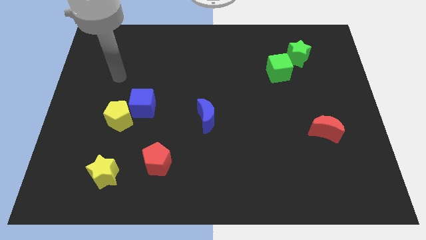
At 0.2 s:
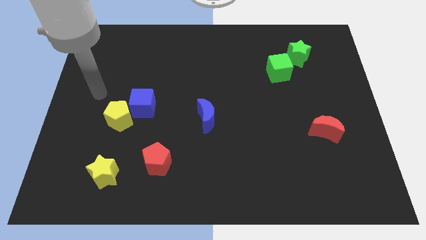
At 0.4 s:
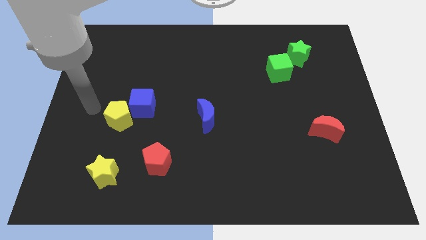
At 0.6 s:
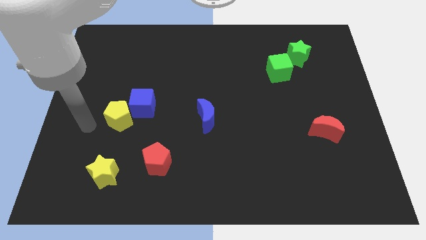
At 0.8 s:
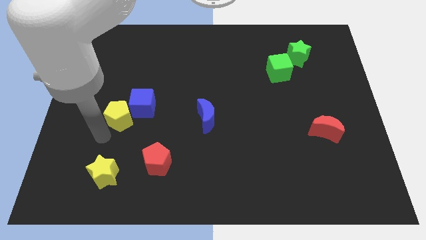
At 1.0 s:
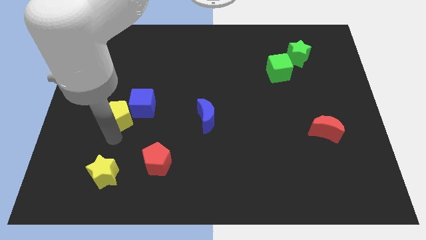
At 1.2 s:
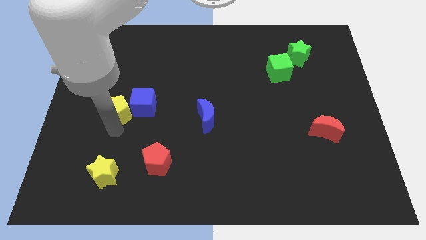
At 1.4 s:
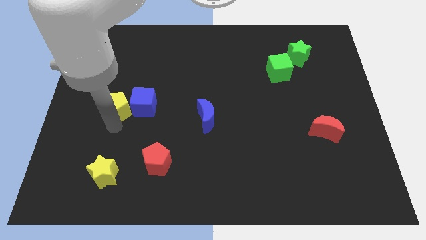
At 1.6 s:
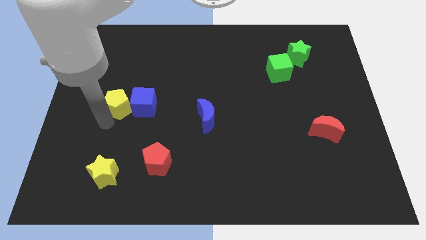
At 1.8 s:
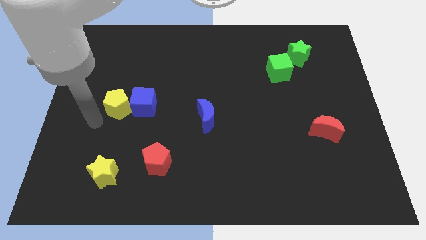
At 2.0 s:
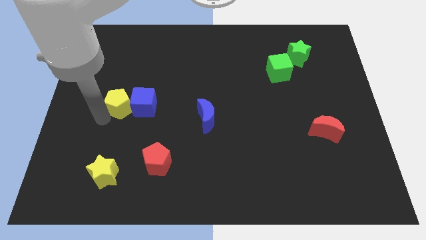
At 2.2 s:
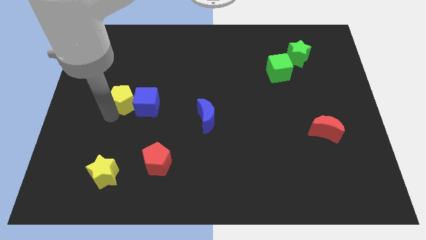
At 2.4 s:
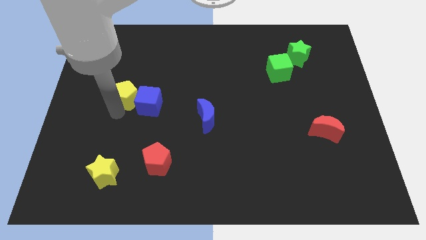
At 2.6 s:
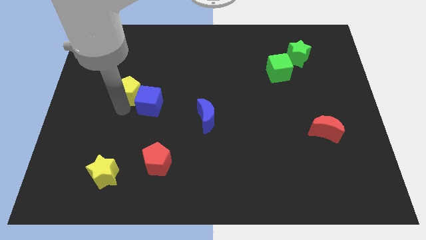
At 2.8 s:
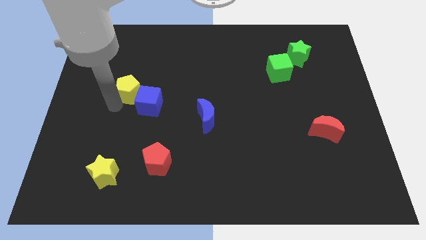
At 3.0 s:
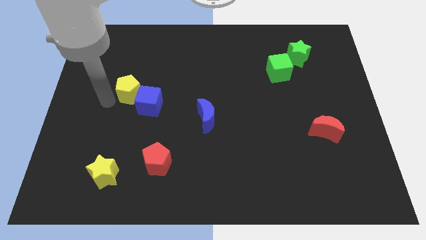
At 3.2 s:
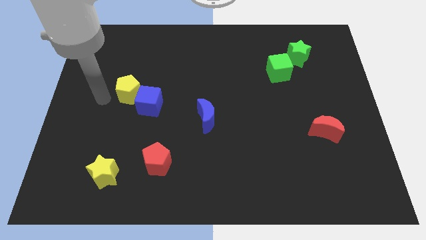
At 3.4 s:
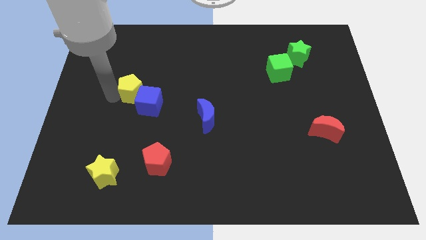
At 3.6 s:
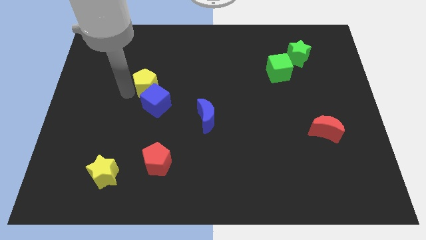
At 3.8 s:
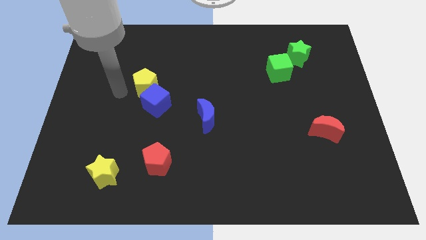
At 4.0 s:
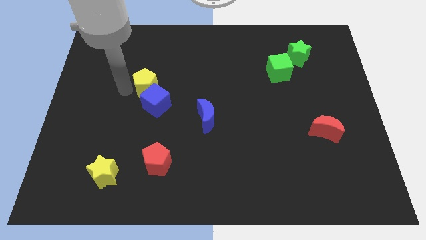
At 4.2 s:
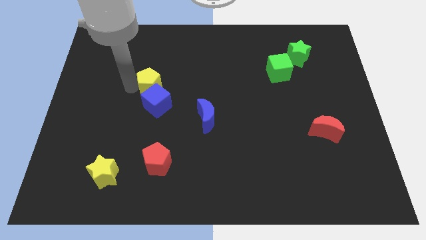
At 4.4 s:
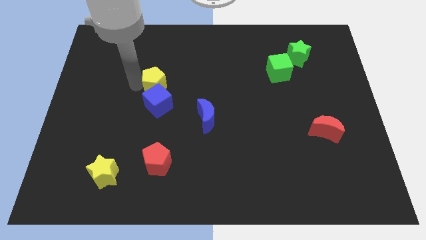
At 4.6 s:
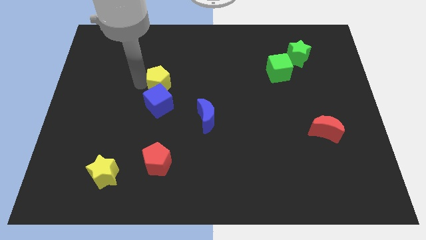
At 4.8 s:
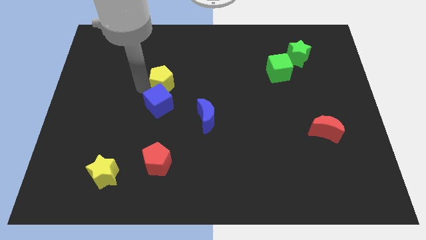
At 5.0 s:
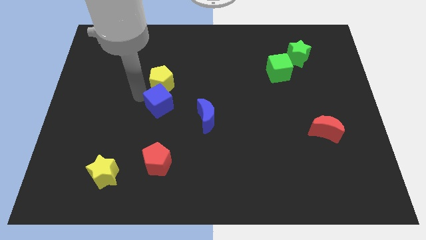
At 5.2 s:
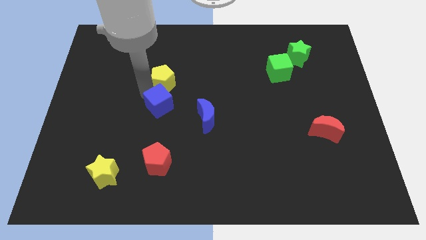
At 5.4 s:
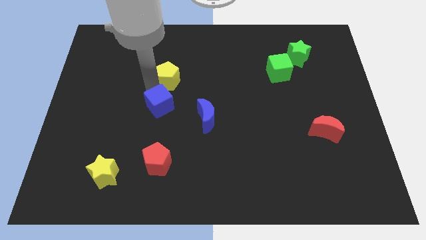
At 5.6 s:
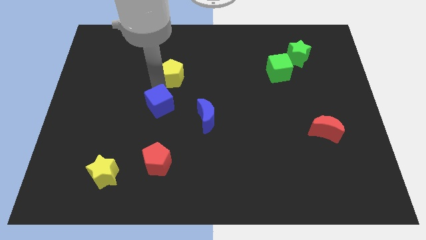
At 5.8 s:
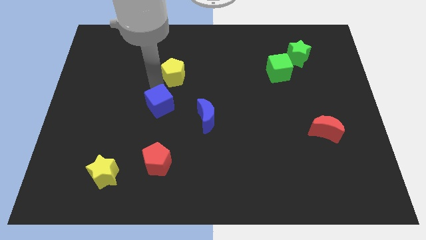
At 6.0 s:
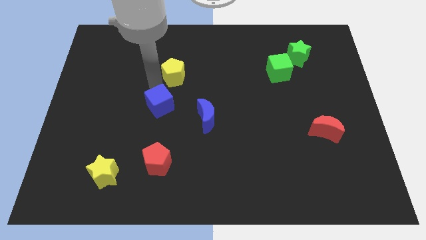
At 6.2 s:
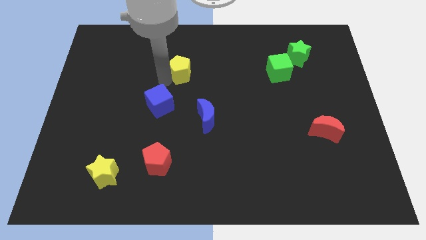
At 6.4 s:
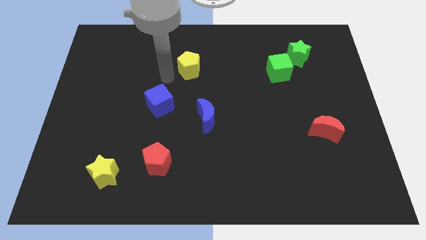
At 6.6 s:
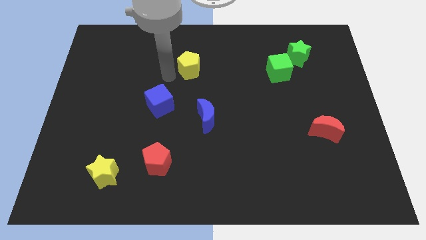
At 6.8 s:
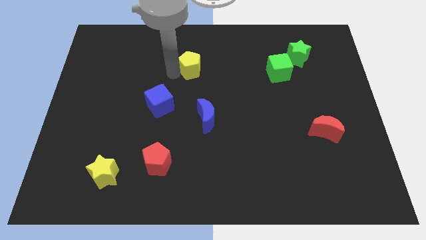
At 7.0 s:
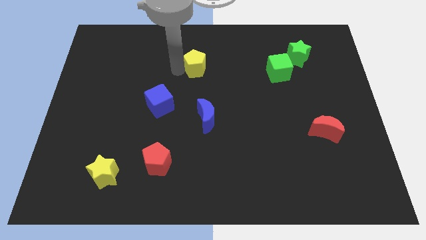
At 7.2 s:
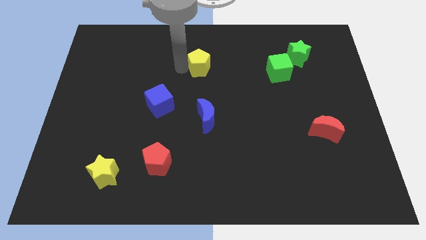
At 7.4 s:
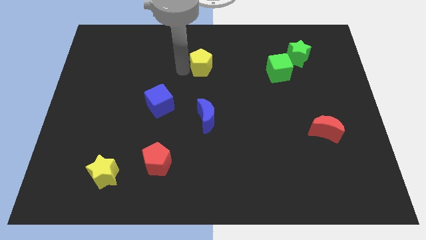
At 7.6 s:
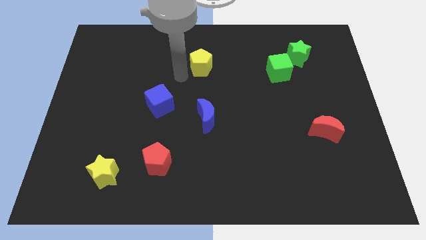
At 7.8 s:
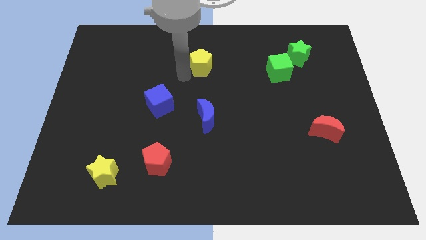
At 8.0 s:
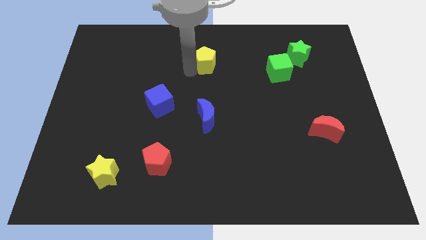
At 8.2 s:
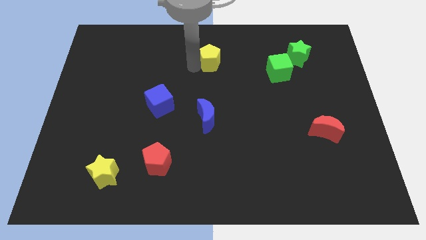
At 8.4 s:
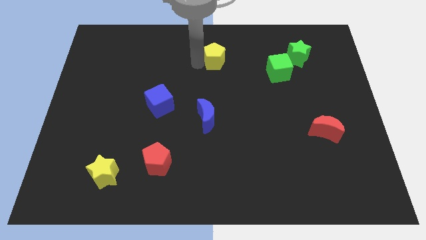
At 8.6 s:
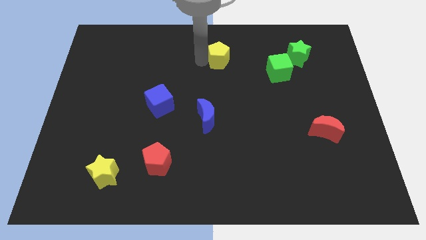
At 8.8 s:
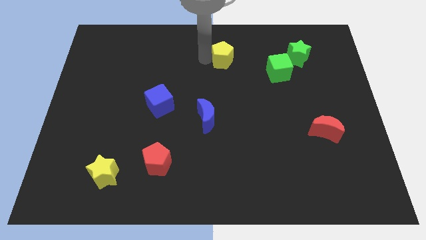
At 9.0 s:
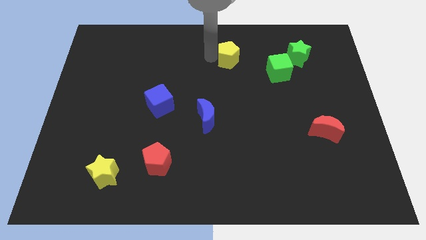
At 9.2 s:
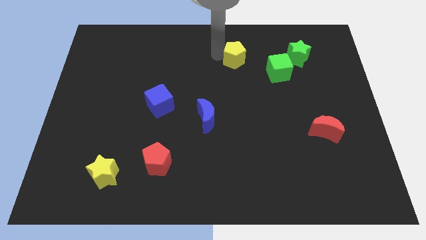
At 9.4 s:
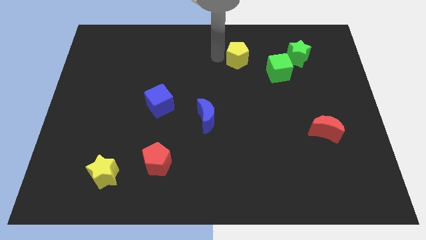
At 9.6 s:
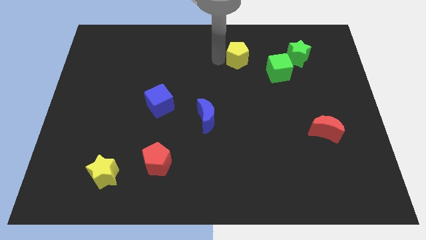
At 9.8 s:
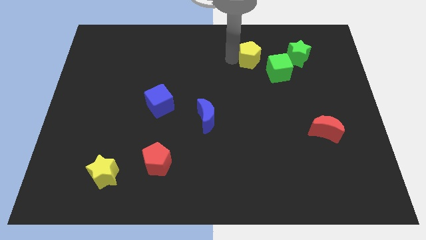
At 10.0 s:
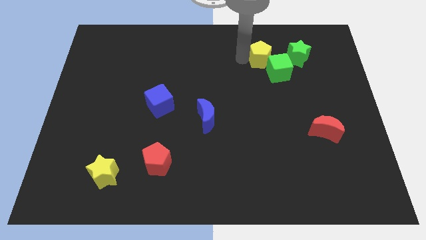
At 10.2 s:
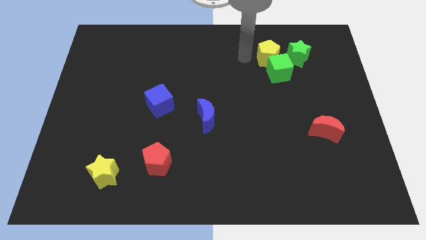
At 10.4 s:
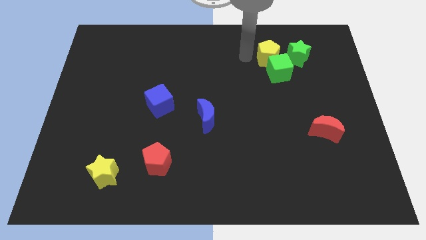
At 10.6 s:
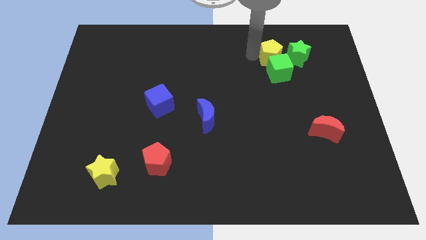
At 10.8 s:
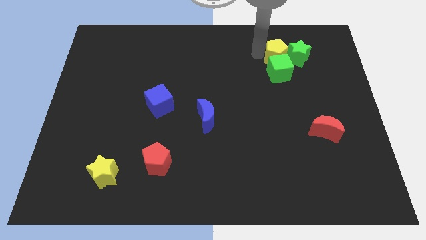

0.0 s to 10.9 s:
push the yellow pentagon towards the green star

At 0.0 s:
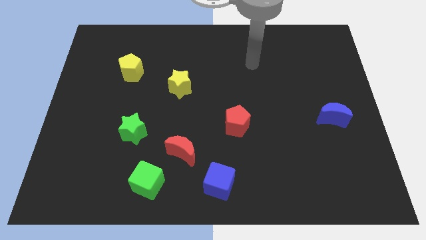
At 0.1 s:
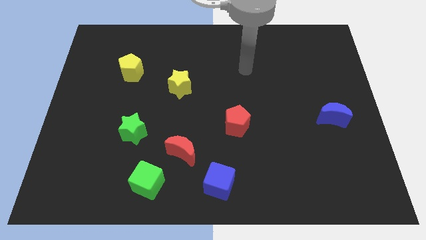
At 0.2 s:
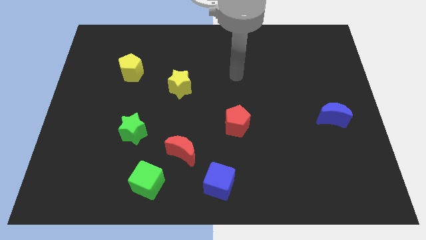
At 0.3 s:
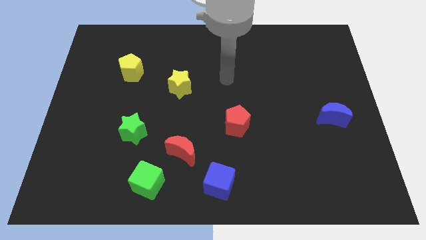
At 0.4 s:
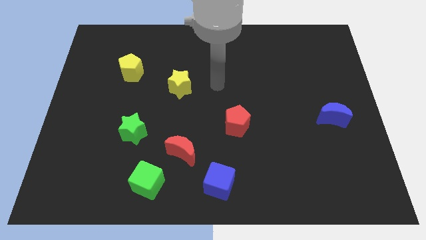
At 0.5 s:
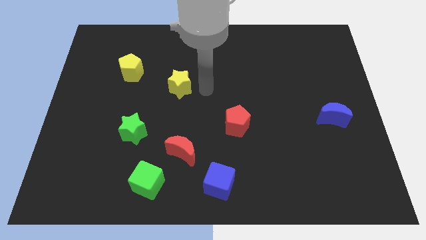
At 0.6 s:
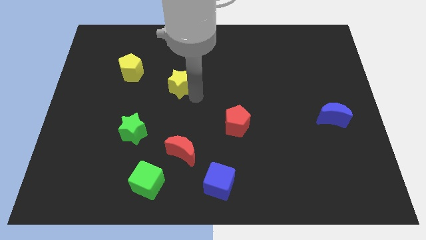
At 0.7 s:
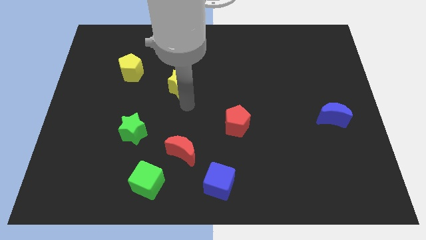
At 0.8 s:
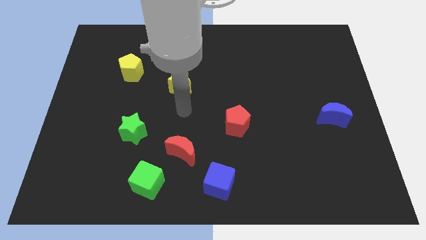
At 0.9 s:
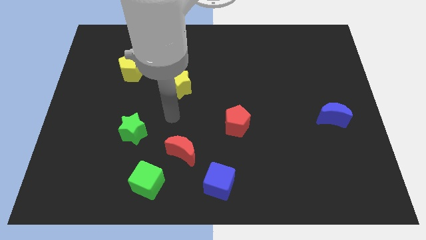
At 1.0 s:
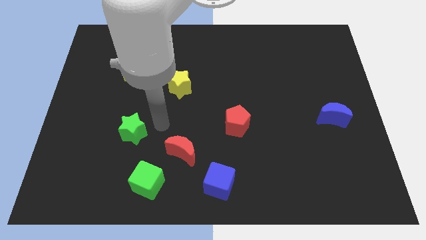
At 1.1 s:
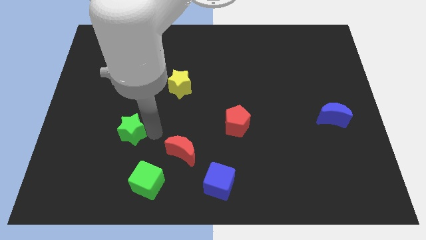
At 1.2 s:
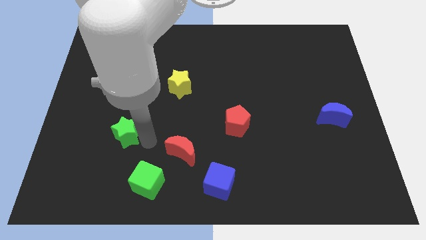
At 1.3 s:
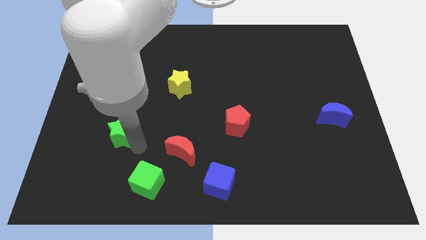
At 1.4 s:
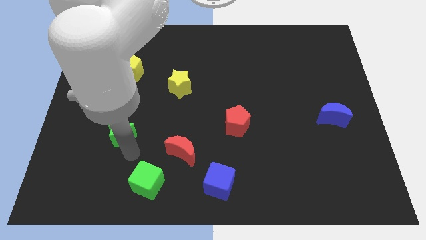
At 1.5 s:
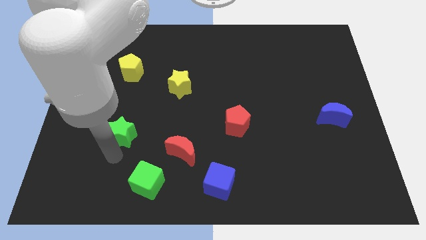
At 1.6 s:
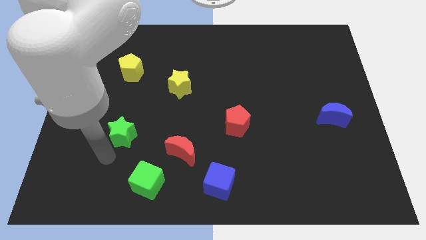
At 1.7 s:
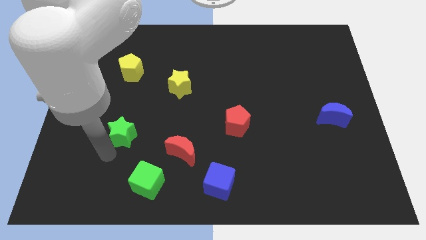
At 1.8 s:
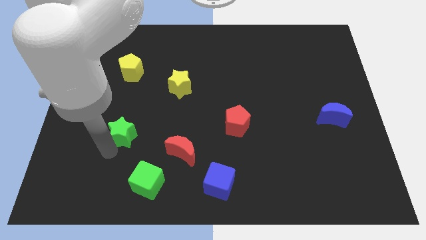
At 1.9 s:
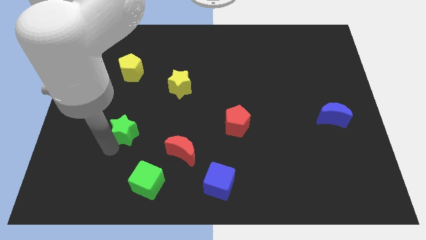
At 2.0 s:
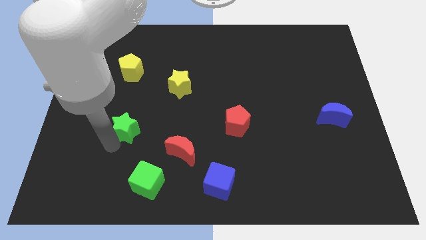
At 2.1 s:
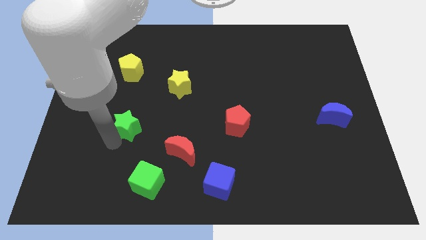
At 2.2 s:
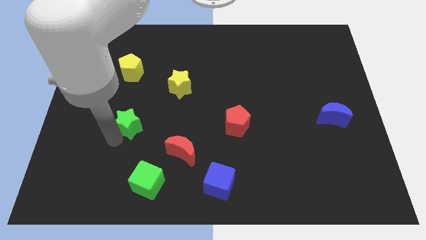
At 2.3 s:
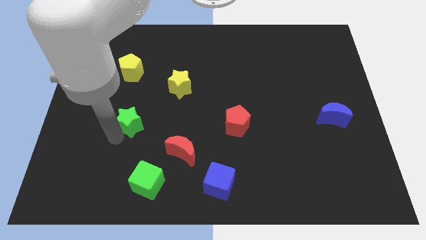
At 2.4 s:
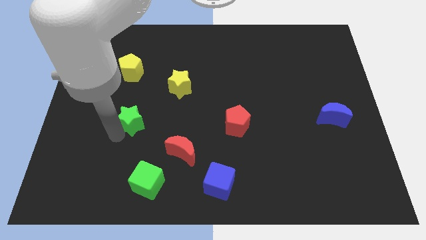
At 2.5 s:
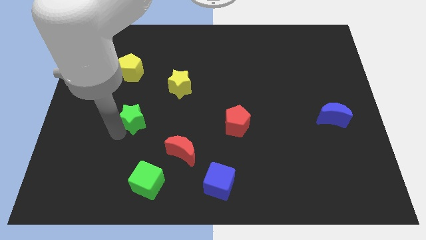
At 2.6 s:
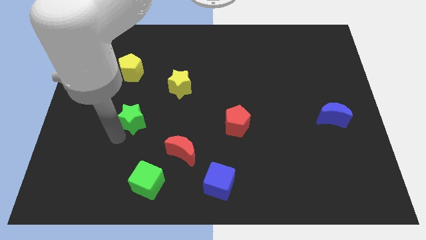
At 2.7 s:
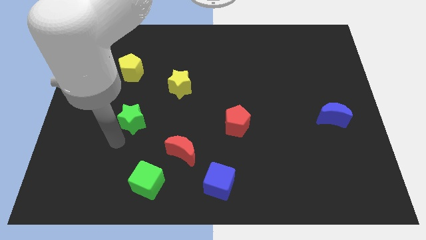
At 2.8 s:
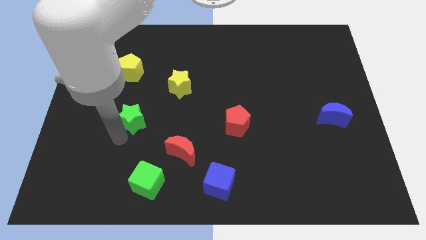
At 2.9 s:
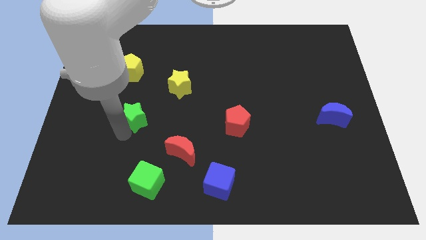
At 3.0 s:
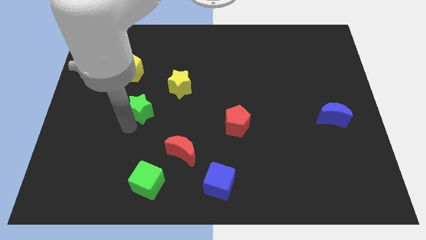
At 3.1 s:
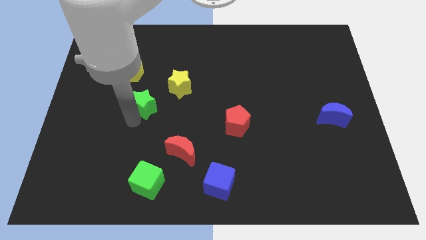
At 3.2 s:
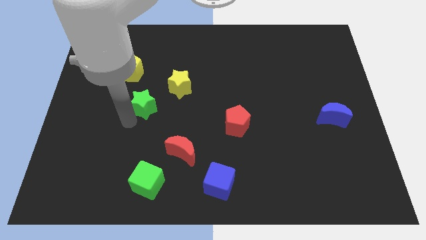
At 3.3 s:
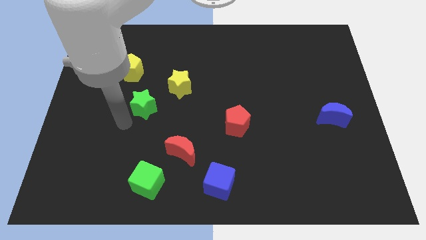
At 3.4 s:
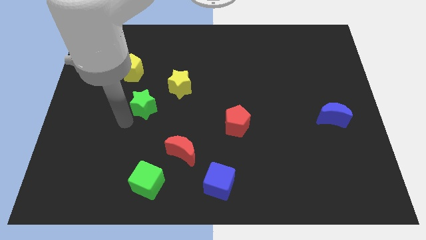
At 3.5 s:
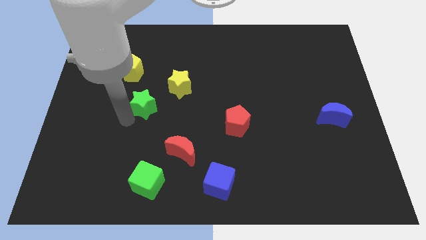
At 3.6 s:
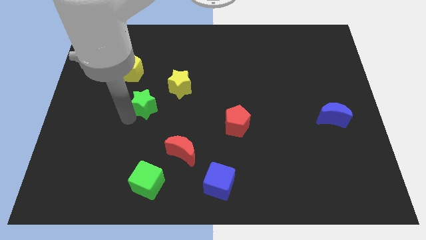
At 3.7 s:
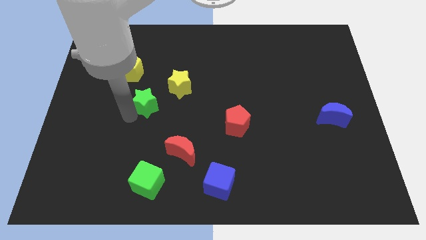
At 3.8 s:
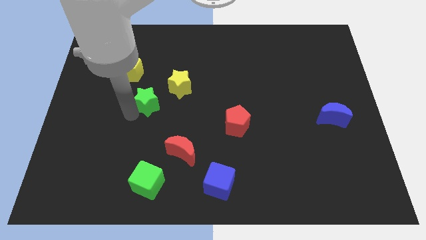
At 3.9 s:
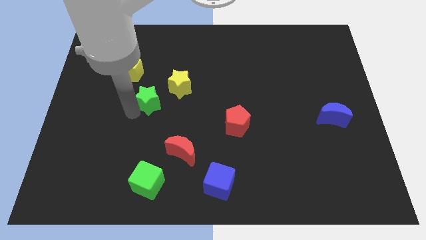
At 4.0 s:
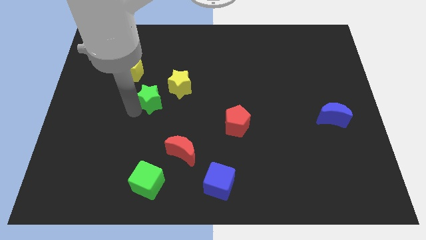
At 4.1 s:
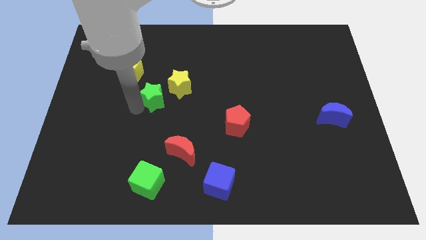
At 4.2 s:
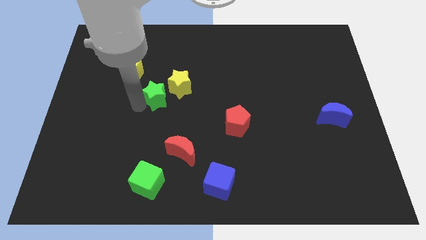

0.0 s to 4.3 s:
slide the green star close to the yellow star
